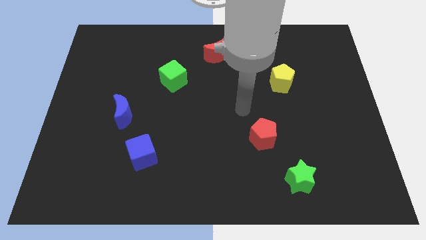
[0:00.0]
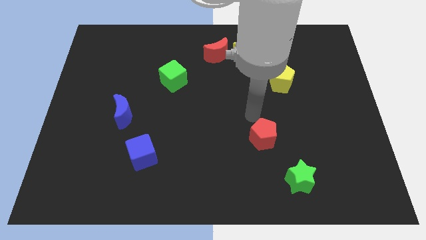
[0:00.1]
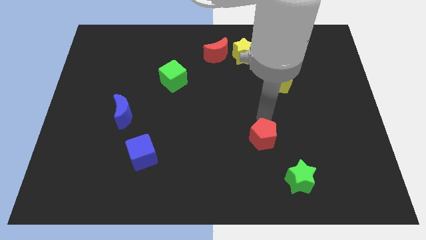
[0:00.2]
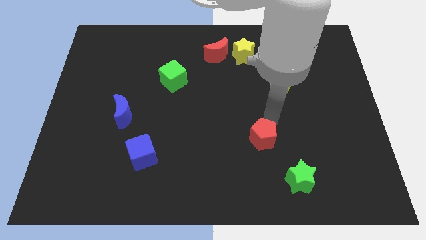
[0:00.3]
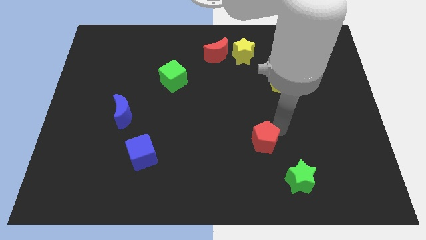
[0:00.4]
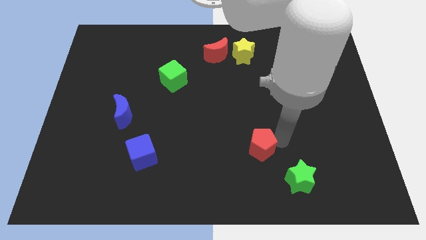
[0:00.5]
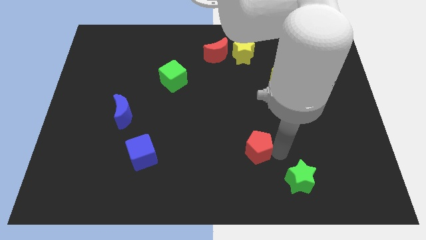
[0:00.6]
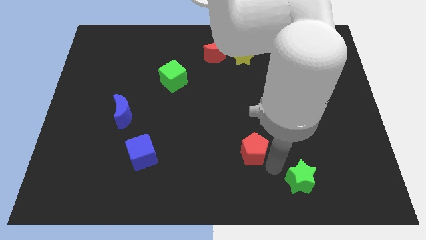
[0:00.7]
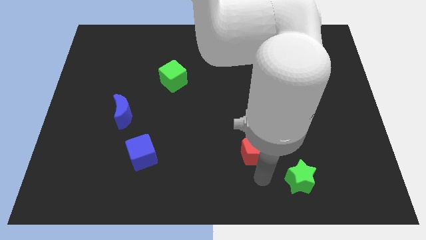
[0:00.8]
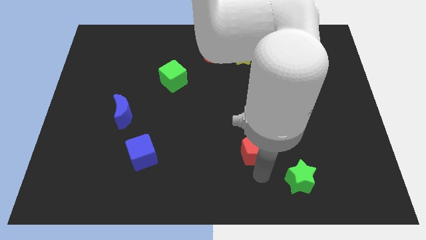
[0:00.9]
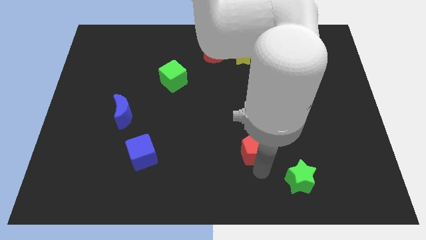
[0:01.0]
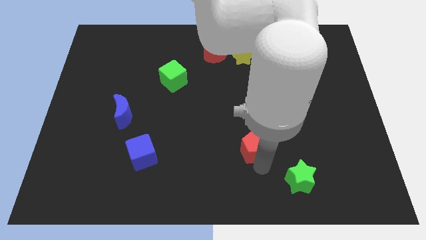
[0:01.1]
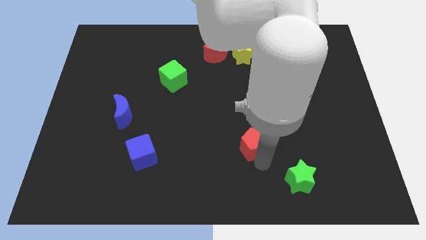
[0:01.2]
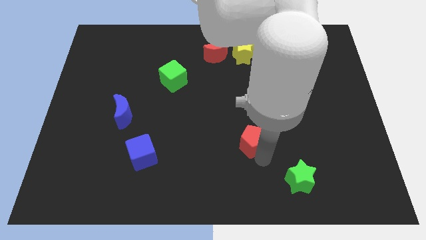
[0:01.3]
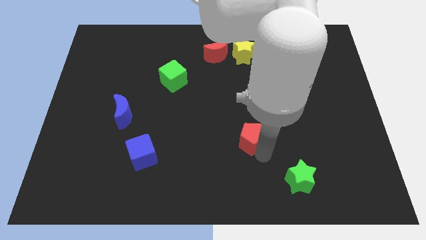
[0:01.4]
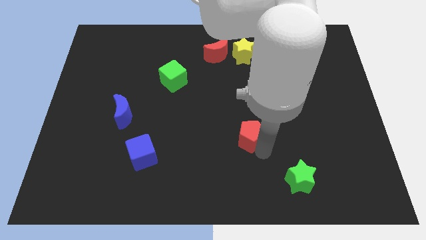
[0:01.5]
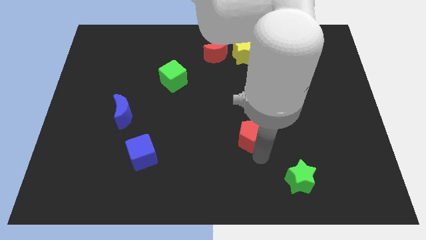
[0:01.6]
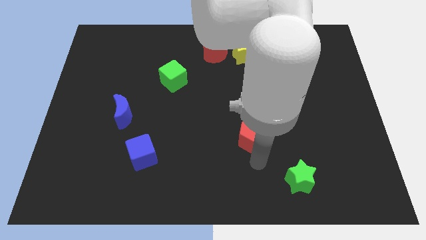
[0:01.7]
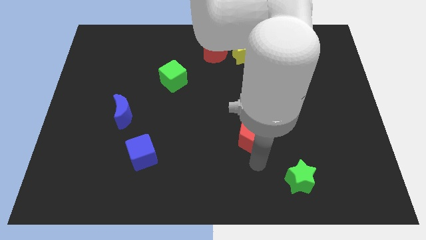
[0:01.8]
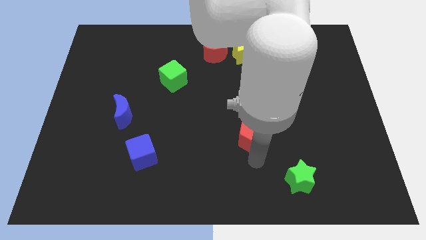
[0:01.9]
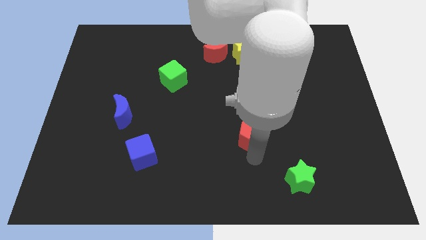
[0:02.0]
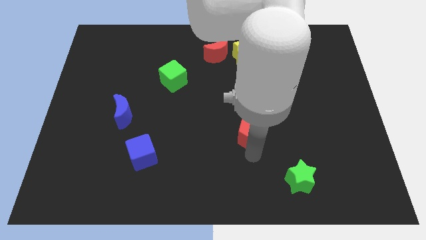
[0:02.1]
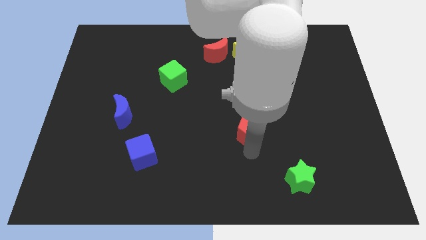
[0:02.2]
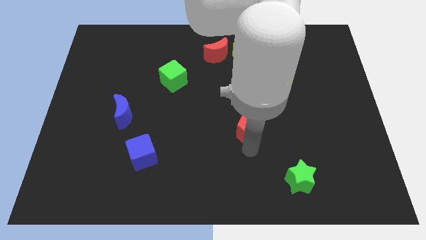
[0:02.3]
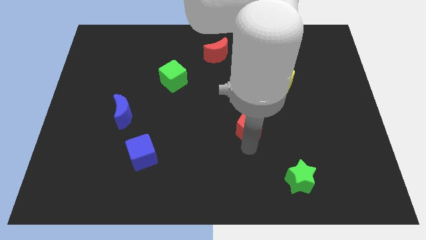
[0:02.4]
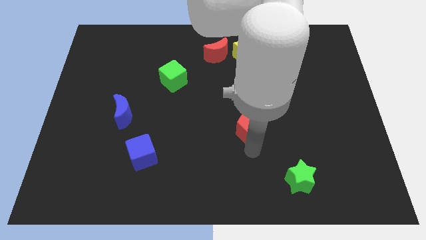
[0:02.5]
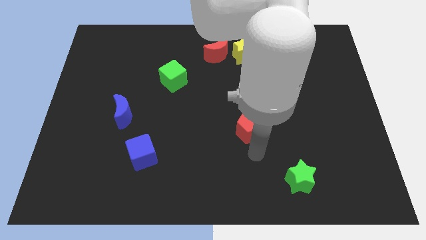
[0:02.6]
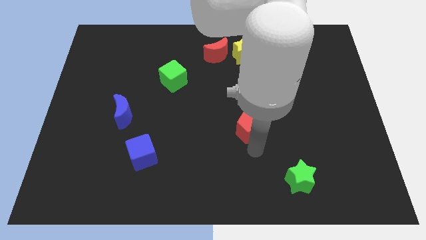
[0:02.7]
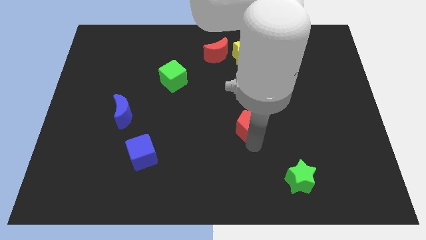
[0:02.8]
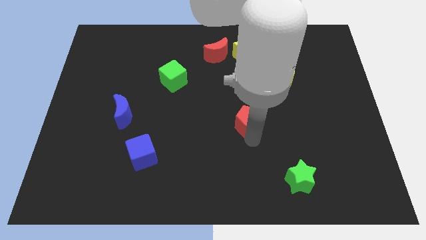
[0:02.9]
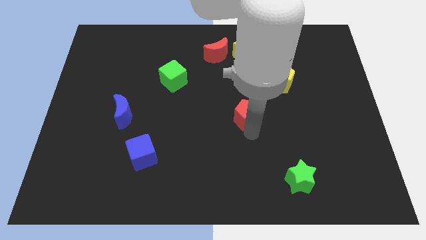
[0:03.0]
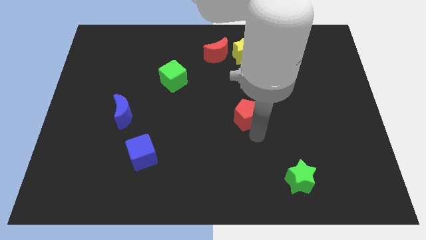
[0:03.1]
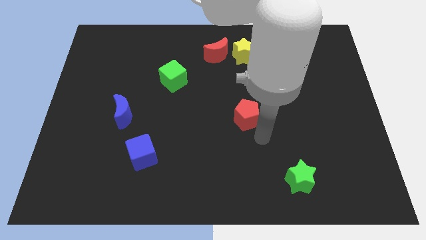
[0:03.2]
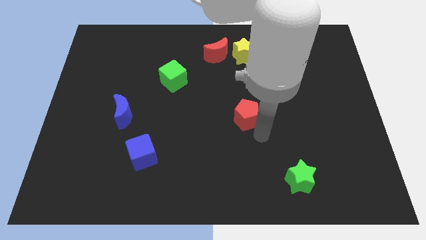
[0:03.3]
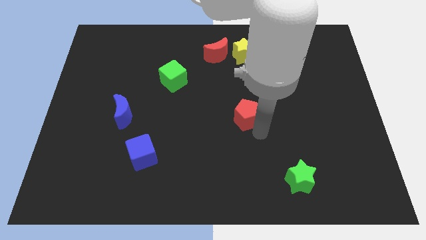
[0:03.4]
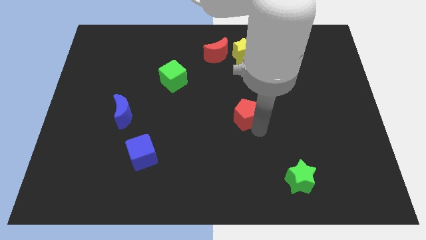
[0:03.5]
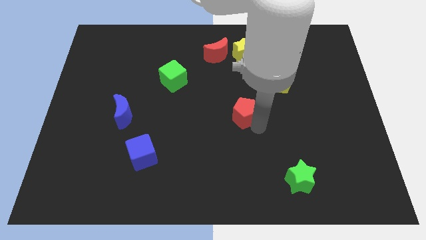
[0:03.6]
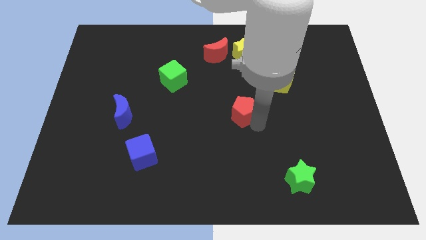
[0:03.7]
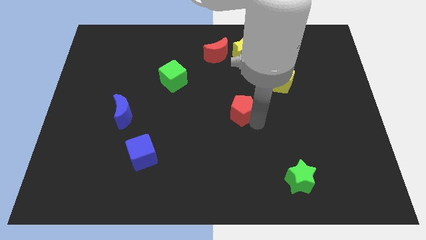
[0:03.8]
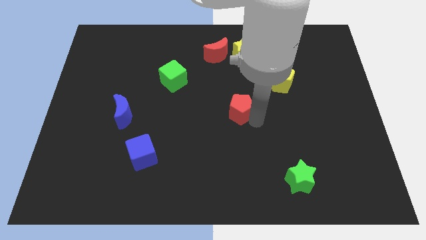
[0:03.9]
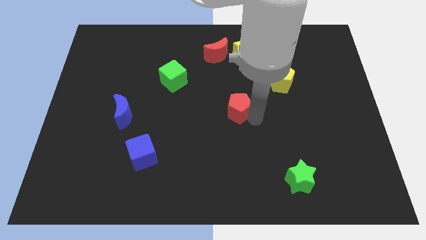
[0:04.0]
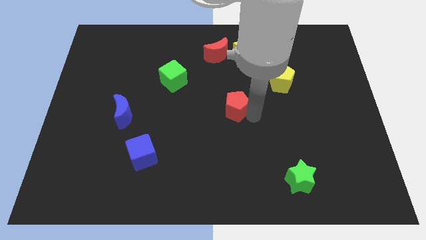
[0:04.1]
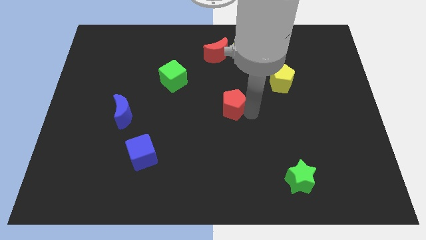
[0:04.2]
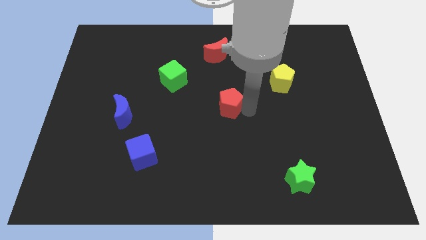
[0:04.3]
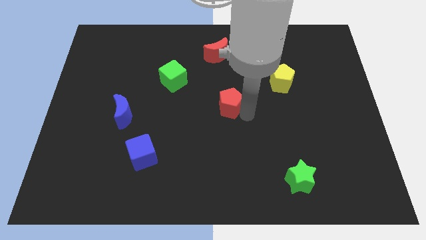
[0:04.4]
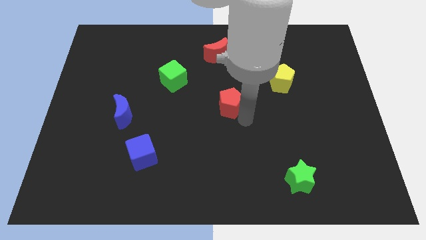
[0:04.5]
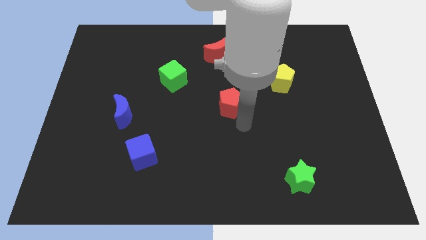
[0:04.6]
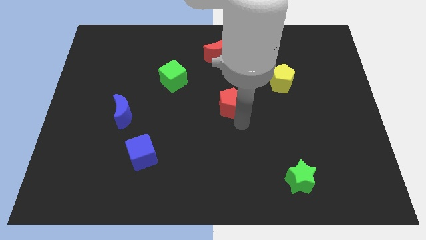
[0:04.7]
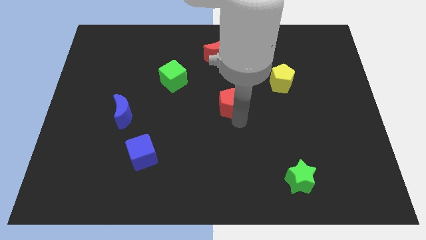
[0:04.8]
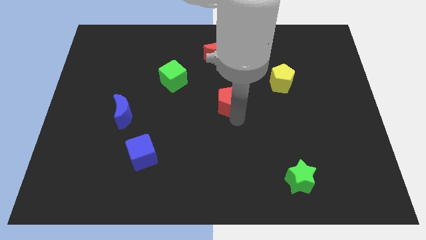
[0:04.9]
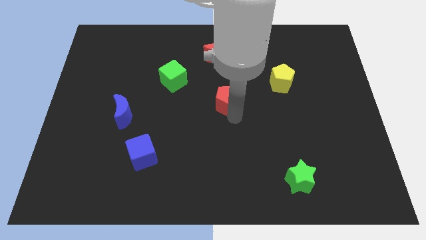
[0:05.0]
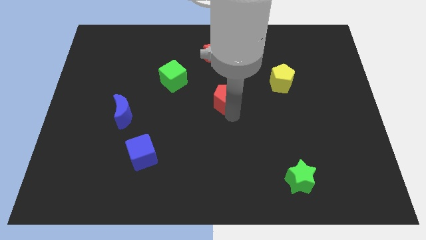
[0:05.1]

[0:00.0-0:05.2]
move the red pentagon below the red moon
